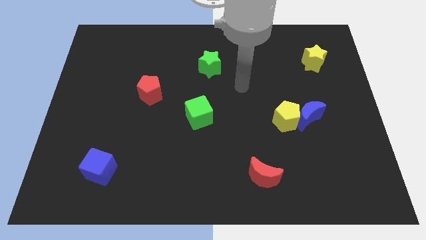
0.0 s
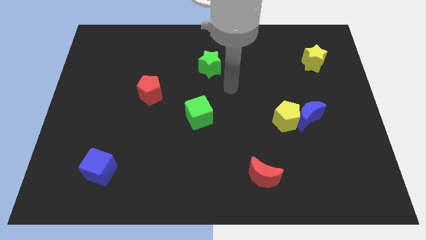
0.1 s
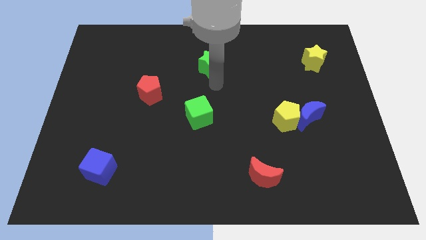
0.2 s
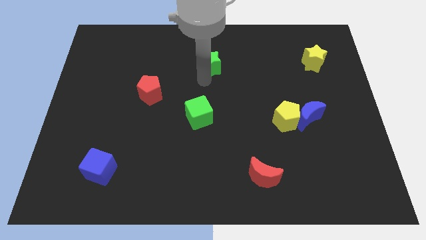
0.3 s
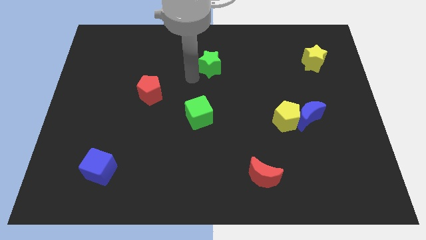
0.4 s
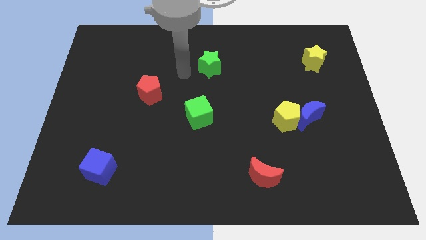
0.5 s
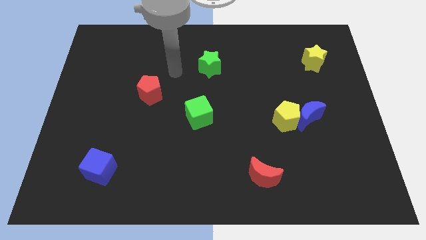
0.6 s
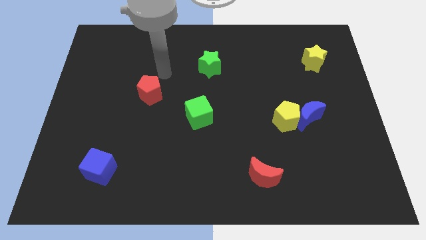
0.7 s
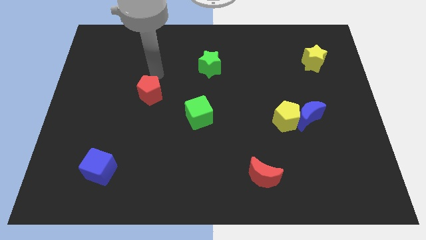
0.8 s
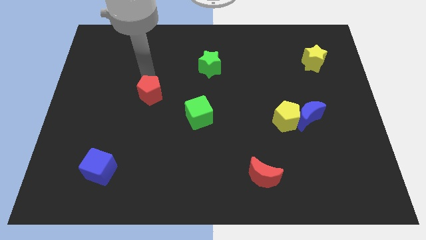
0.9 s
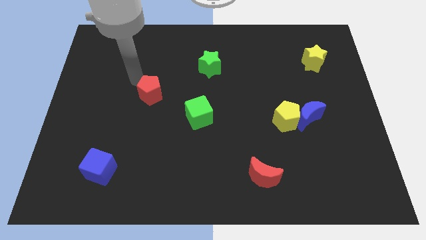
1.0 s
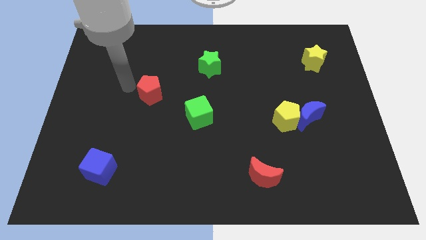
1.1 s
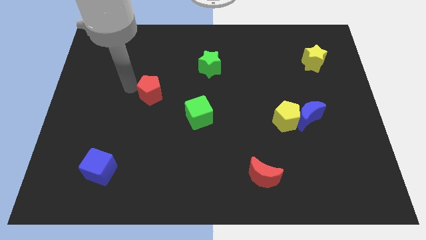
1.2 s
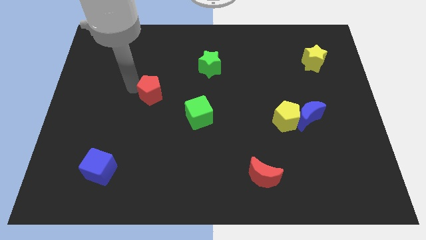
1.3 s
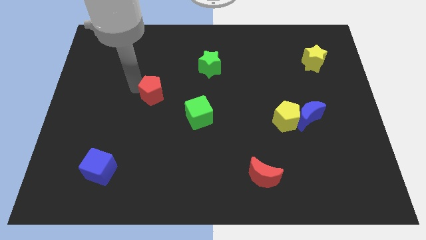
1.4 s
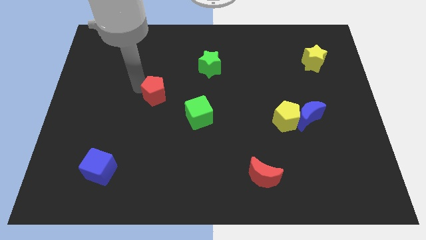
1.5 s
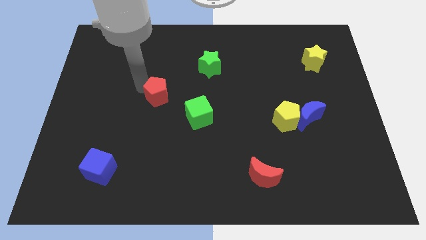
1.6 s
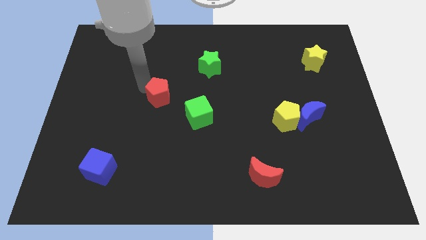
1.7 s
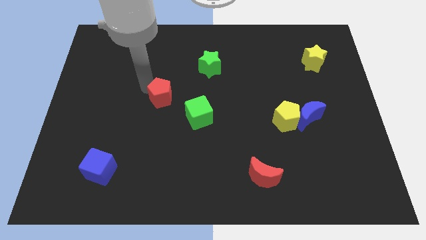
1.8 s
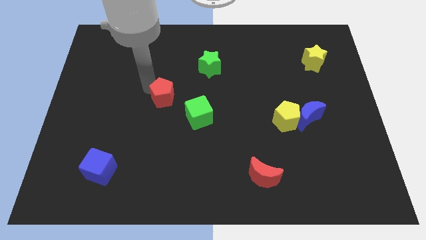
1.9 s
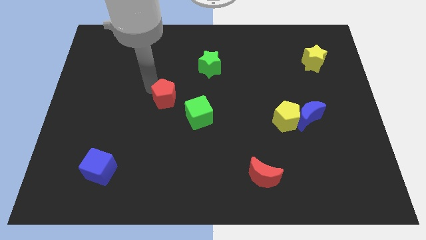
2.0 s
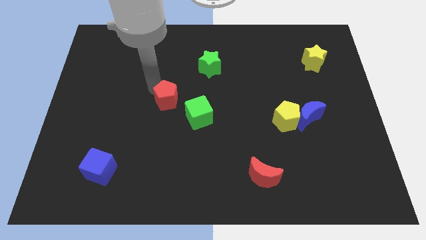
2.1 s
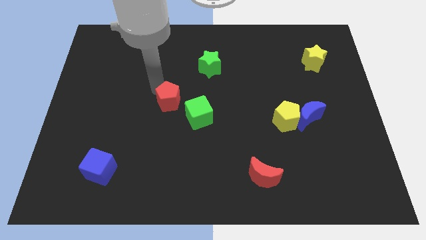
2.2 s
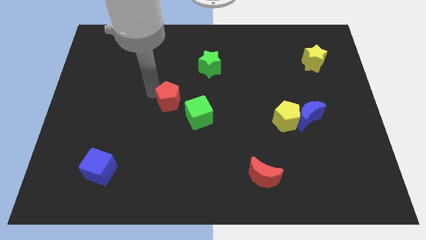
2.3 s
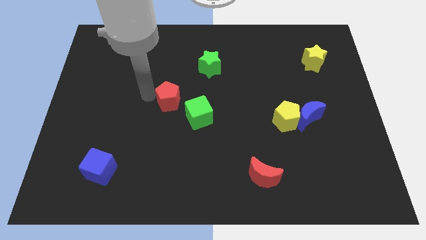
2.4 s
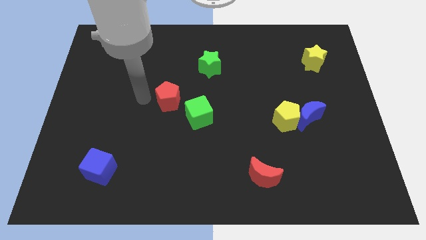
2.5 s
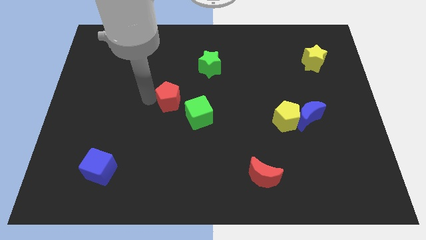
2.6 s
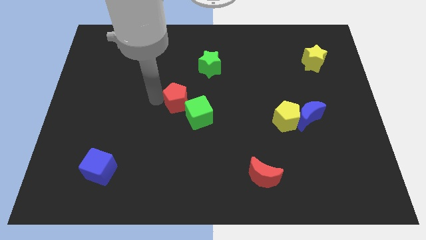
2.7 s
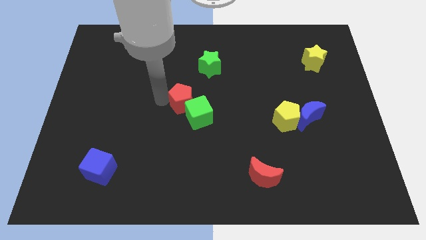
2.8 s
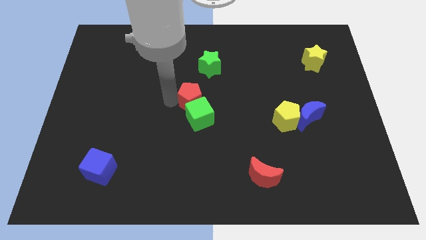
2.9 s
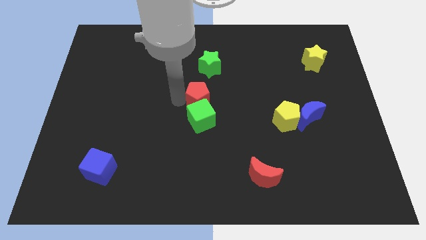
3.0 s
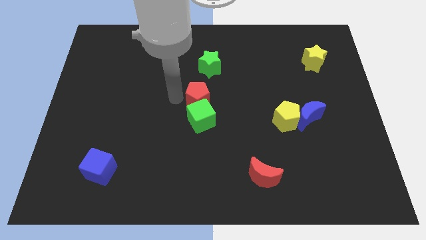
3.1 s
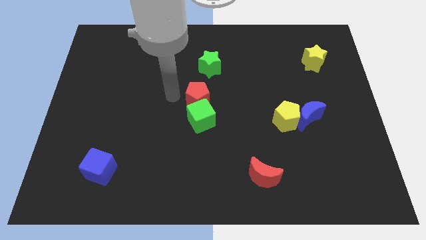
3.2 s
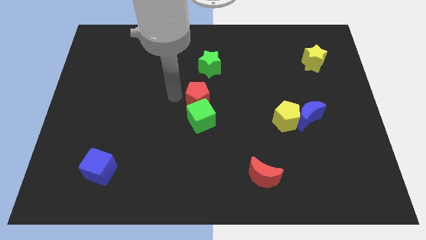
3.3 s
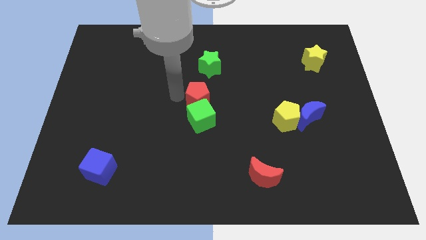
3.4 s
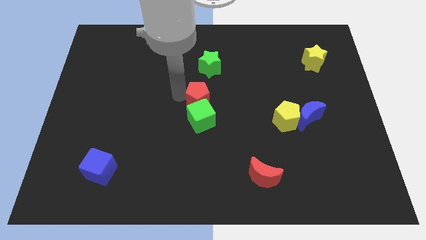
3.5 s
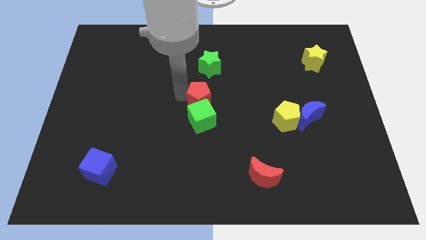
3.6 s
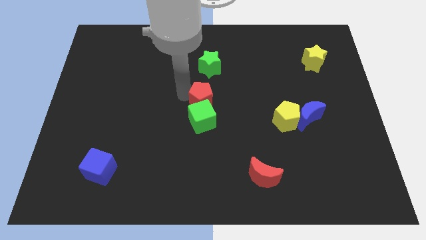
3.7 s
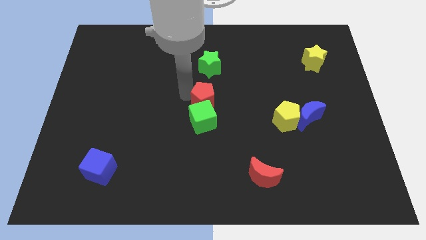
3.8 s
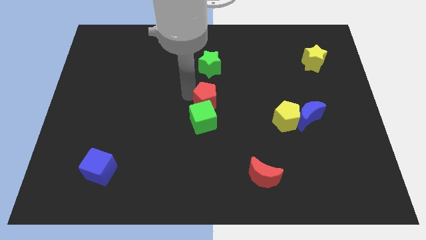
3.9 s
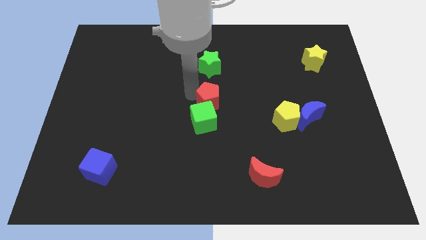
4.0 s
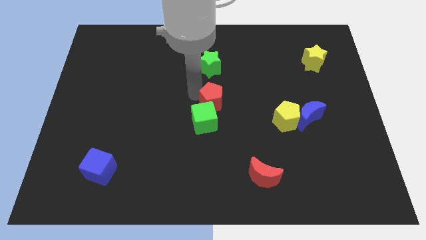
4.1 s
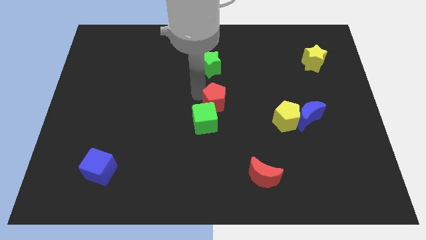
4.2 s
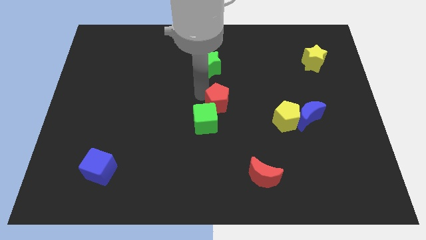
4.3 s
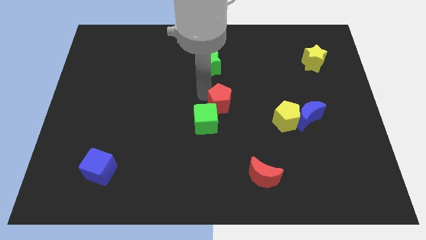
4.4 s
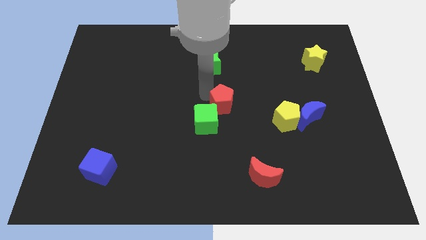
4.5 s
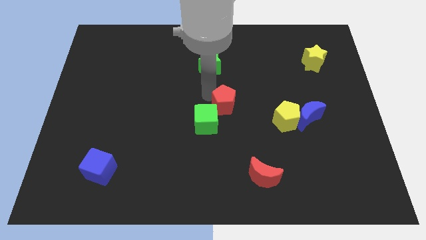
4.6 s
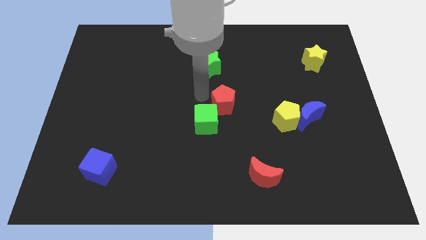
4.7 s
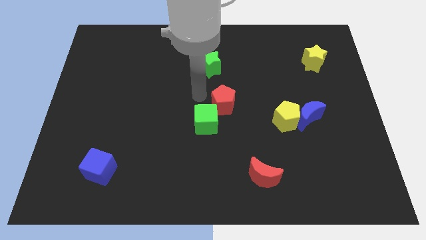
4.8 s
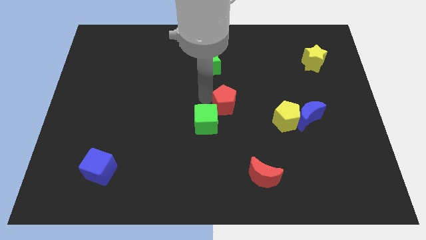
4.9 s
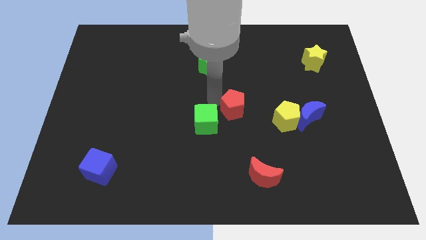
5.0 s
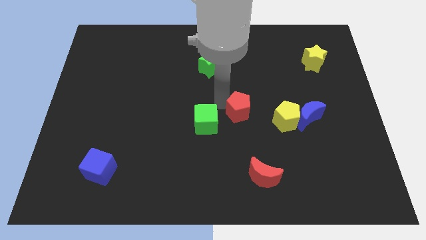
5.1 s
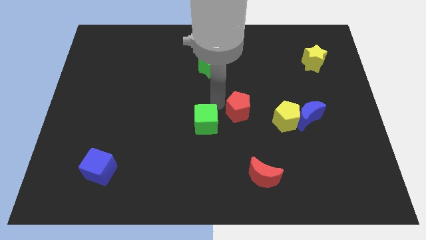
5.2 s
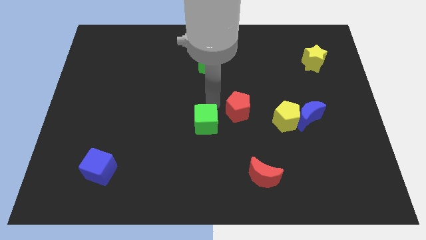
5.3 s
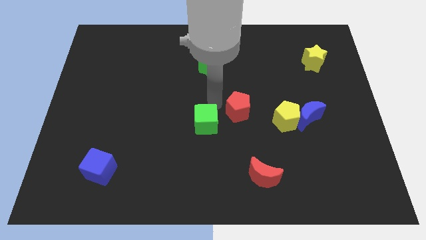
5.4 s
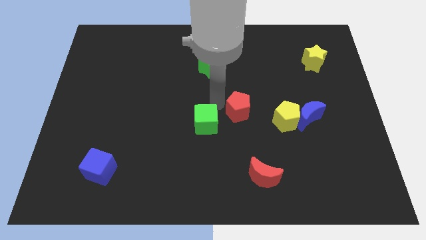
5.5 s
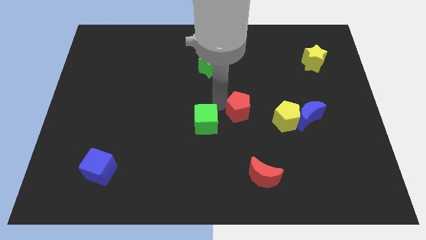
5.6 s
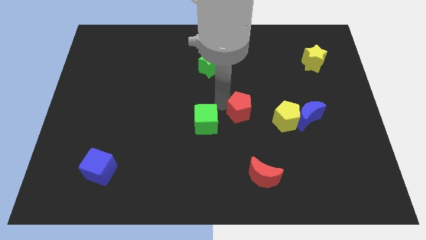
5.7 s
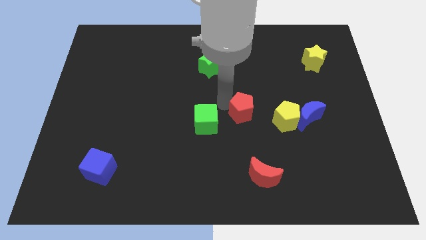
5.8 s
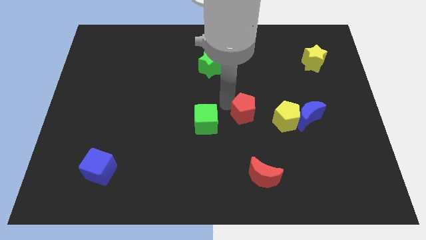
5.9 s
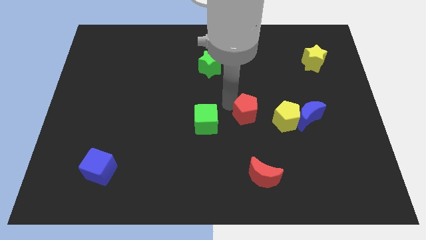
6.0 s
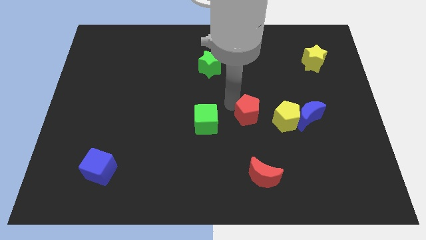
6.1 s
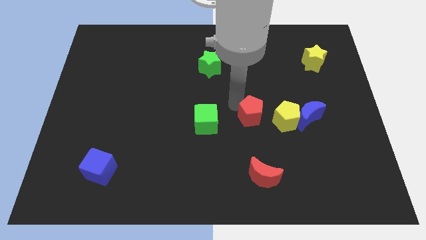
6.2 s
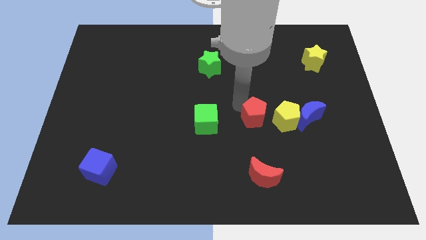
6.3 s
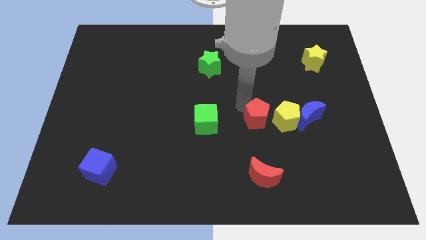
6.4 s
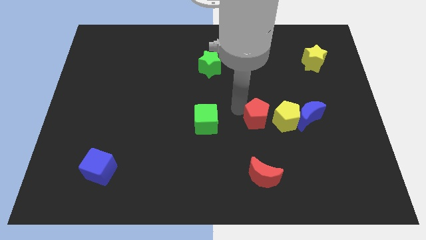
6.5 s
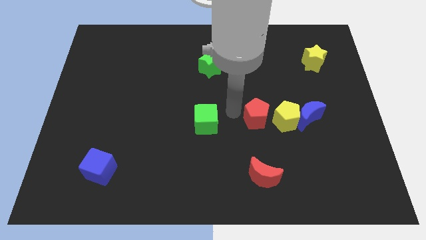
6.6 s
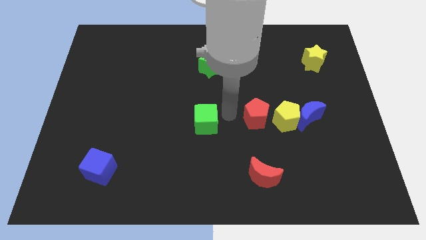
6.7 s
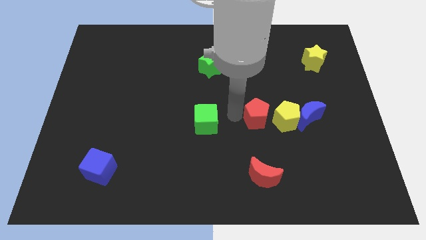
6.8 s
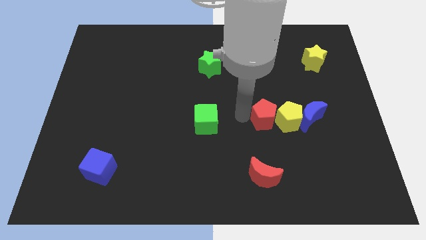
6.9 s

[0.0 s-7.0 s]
slide the red pentagon close to the yellow pentagon

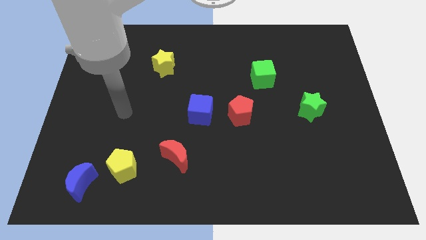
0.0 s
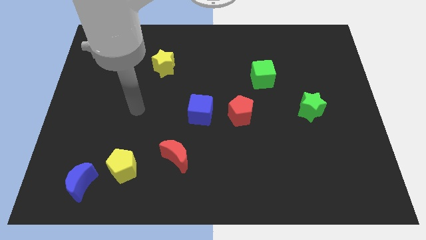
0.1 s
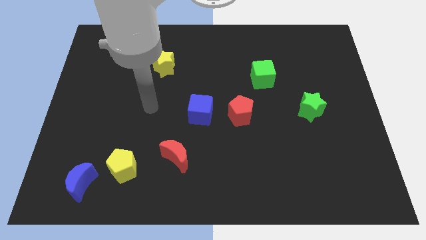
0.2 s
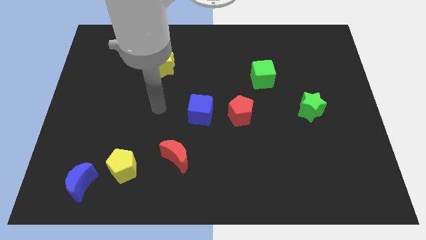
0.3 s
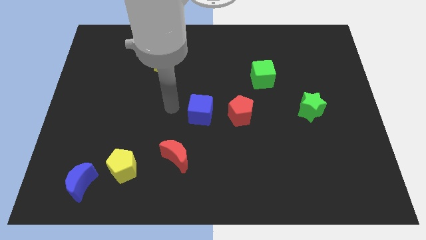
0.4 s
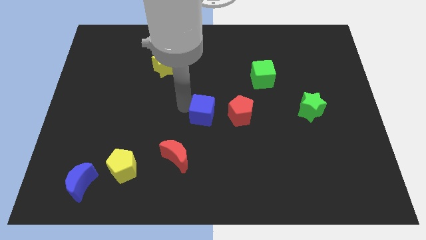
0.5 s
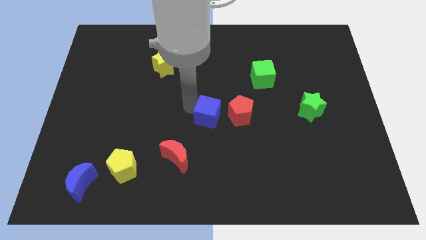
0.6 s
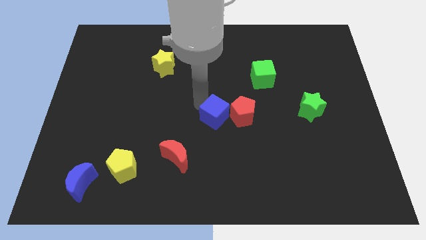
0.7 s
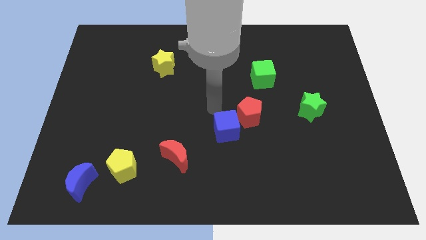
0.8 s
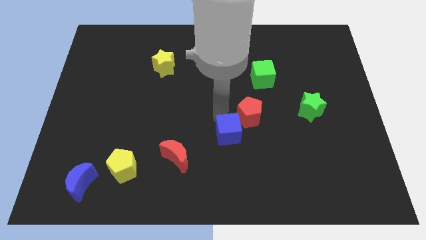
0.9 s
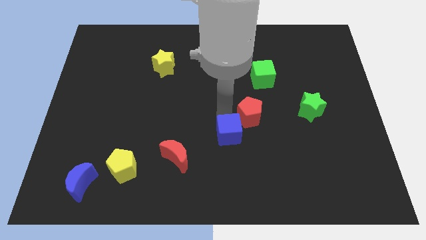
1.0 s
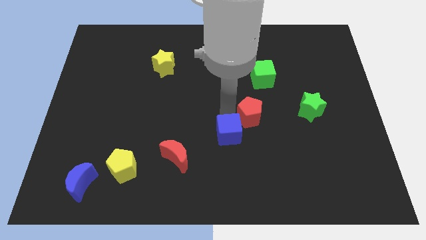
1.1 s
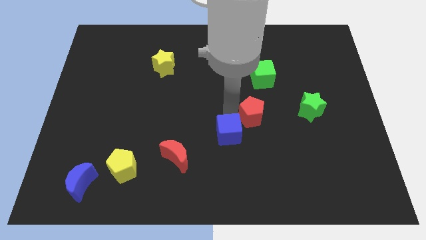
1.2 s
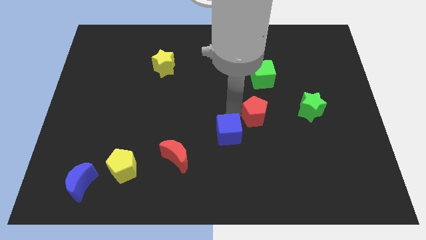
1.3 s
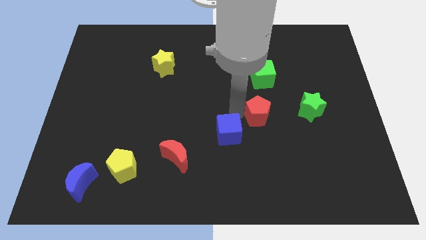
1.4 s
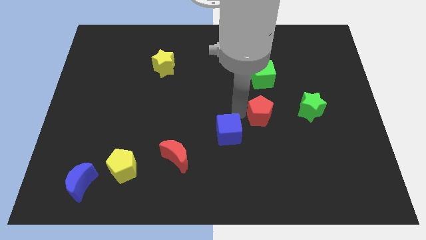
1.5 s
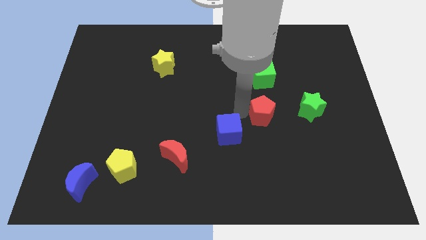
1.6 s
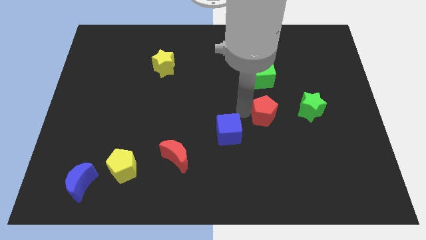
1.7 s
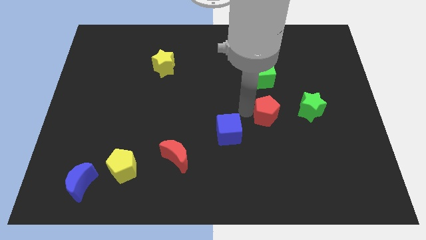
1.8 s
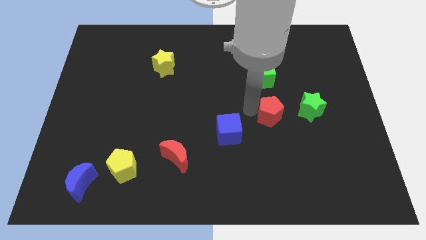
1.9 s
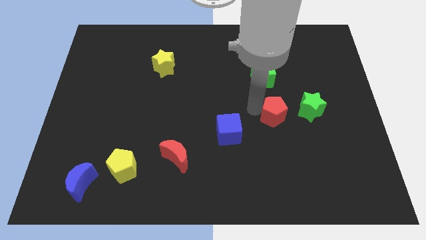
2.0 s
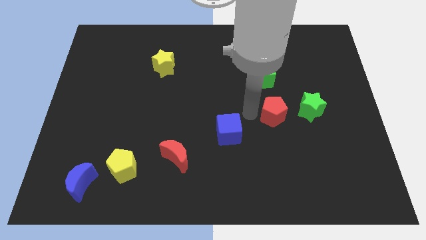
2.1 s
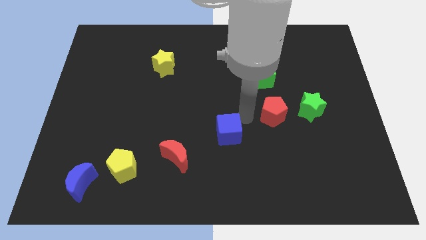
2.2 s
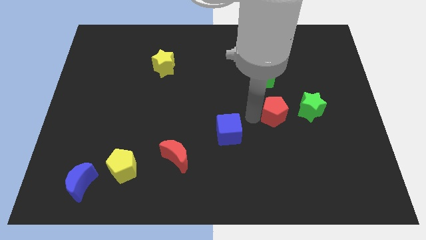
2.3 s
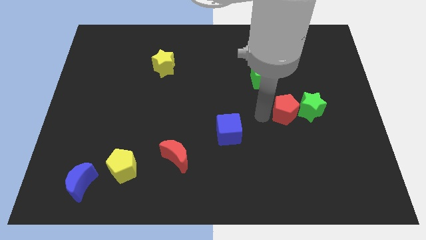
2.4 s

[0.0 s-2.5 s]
slide the red pentagon towards the green star
